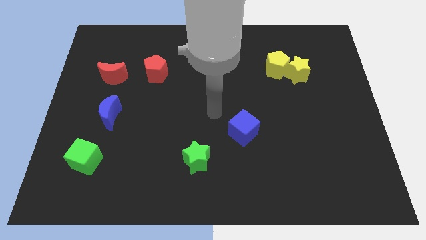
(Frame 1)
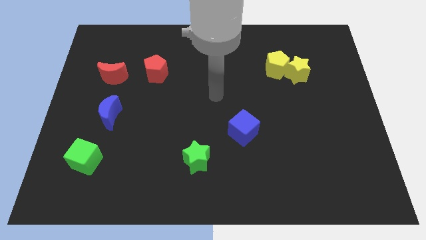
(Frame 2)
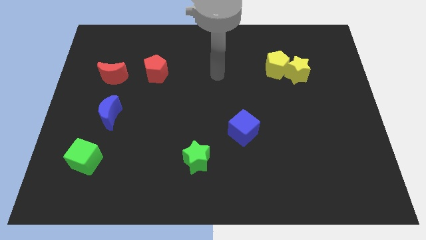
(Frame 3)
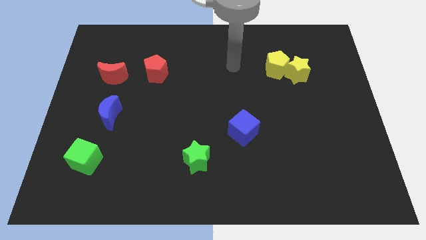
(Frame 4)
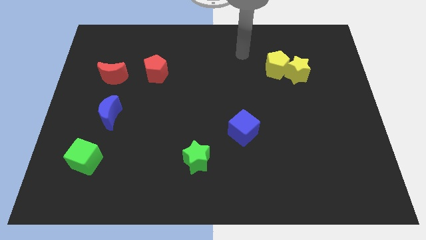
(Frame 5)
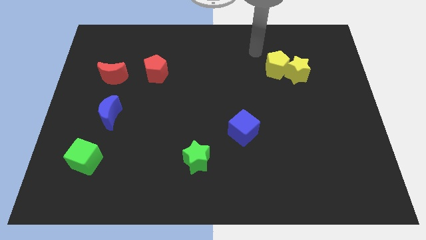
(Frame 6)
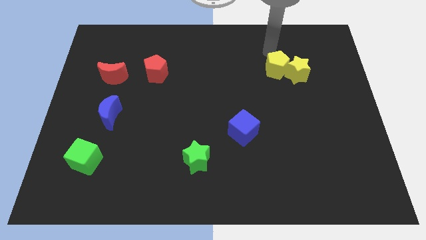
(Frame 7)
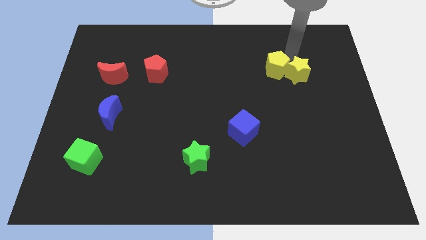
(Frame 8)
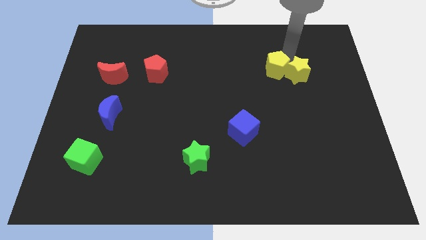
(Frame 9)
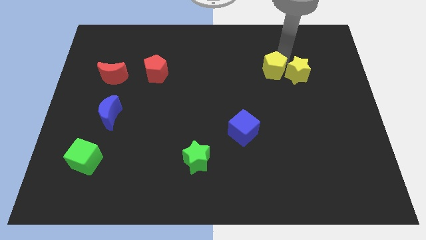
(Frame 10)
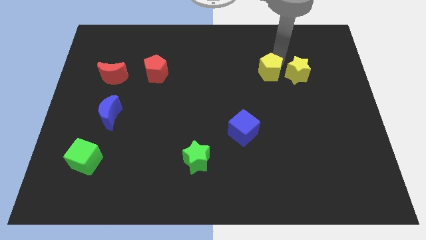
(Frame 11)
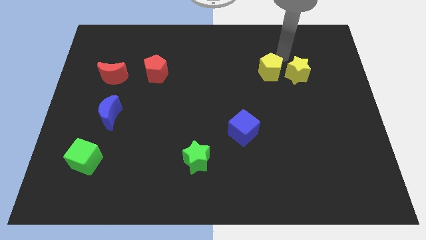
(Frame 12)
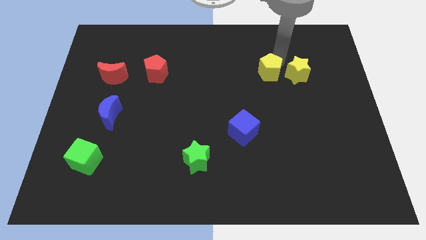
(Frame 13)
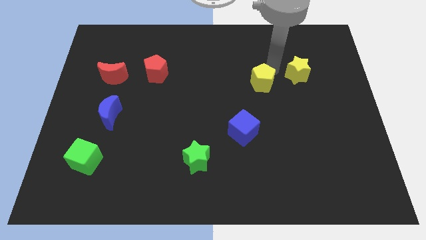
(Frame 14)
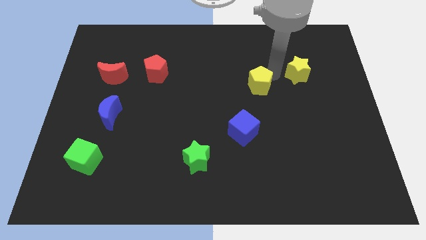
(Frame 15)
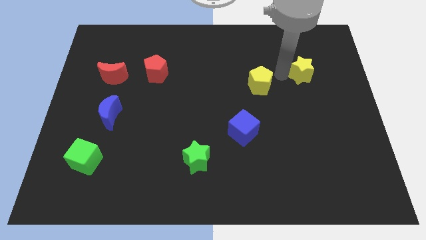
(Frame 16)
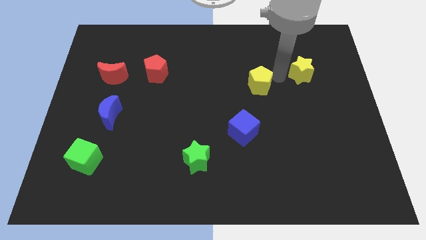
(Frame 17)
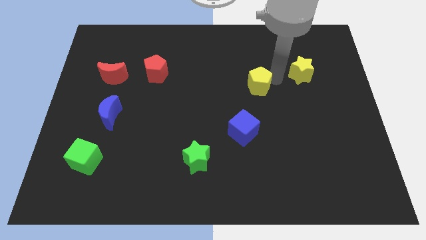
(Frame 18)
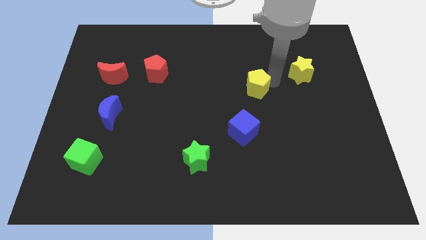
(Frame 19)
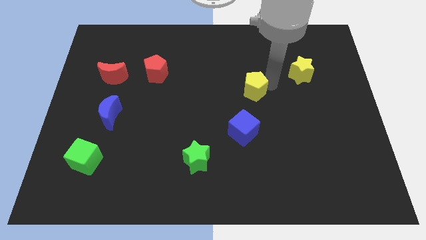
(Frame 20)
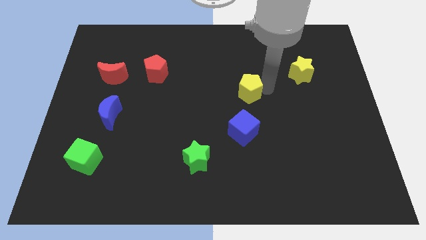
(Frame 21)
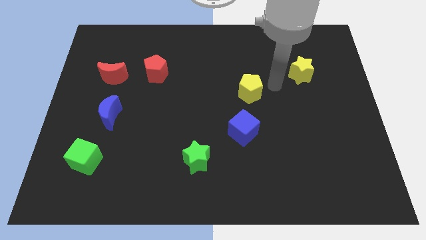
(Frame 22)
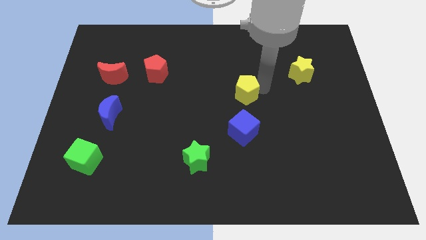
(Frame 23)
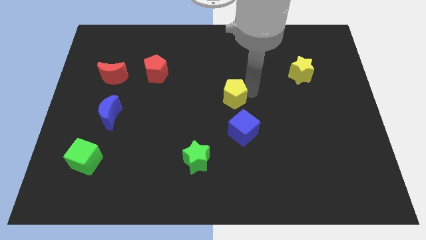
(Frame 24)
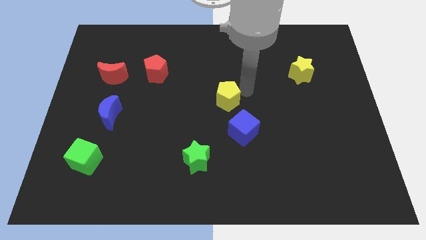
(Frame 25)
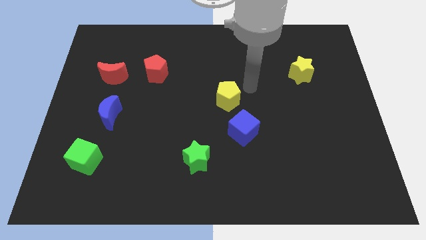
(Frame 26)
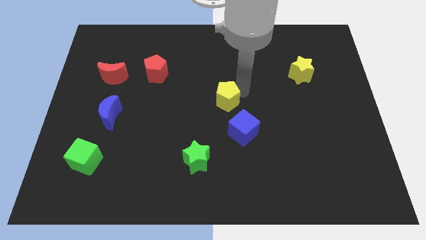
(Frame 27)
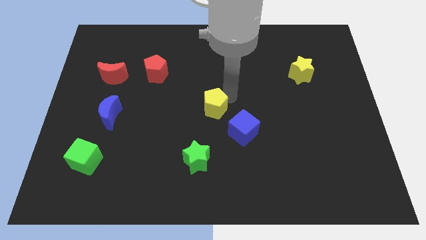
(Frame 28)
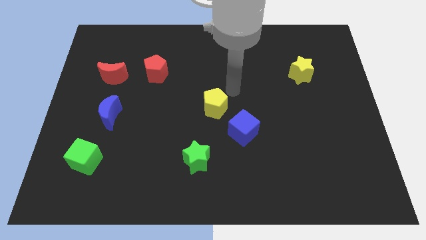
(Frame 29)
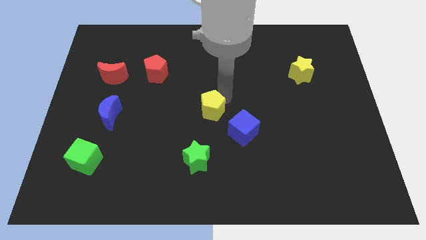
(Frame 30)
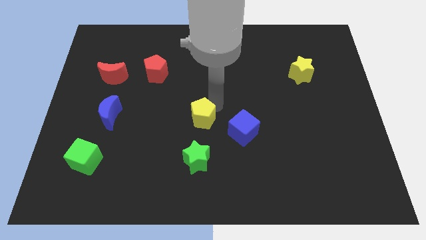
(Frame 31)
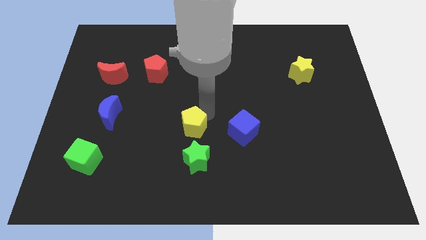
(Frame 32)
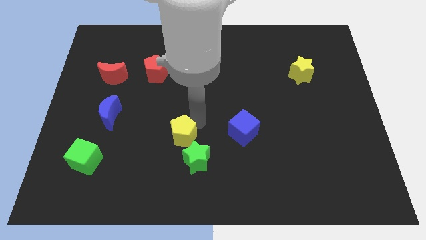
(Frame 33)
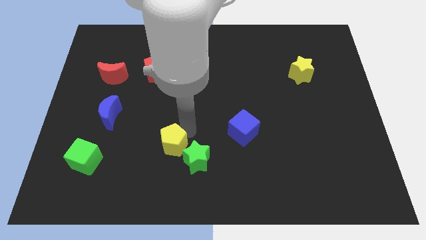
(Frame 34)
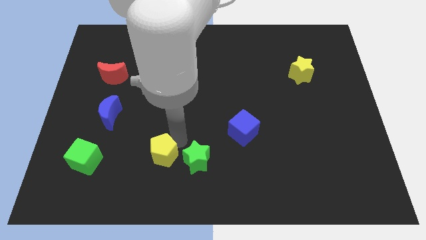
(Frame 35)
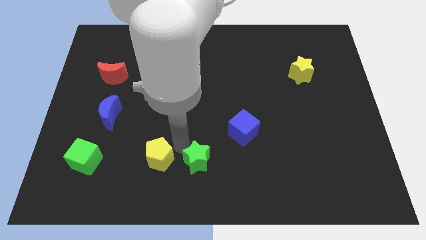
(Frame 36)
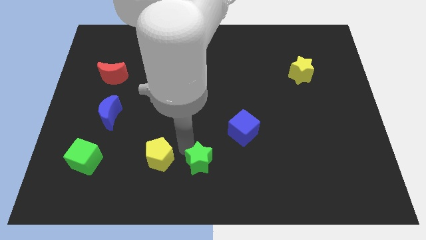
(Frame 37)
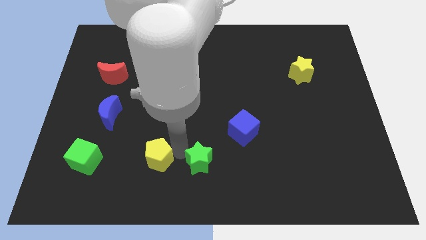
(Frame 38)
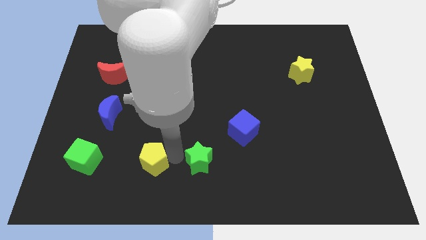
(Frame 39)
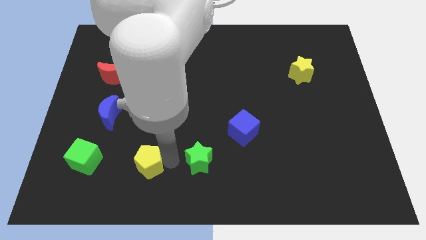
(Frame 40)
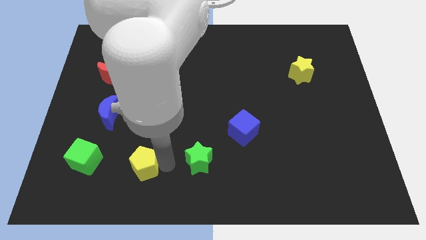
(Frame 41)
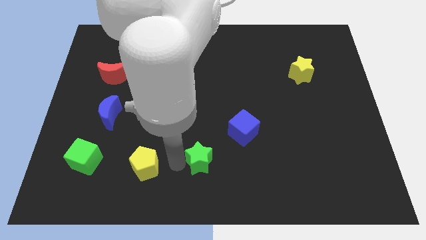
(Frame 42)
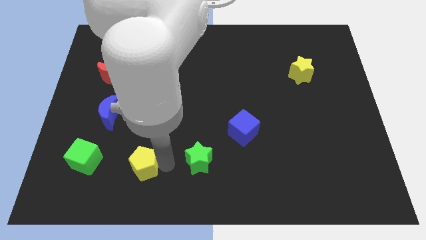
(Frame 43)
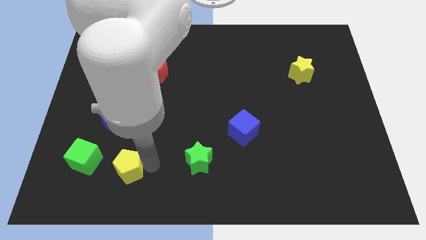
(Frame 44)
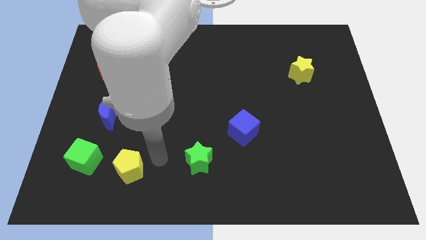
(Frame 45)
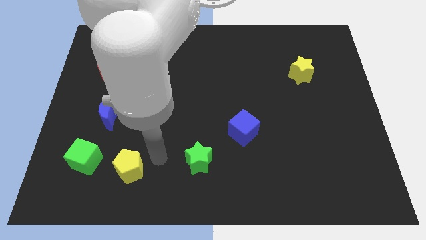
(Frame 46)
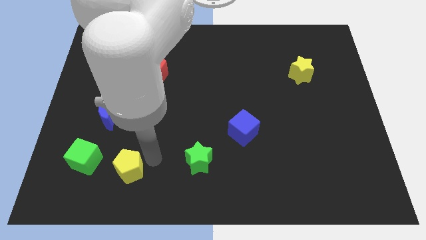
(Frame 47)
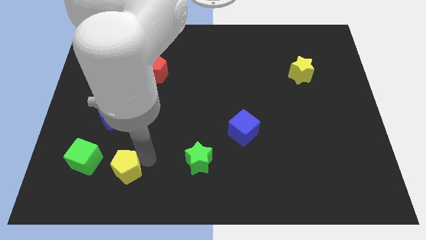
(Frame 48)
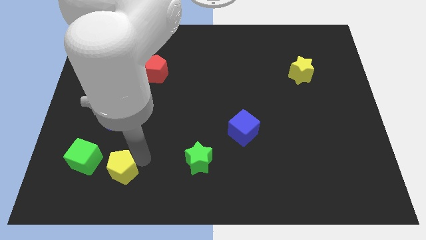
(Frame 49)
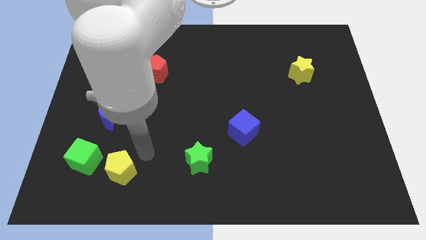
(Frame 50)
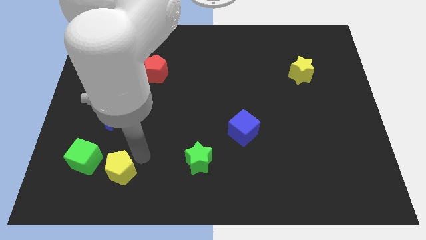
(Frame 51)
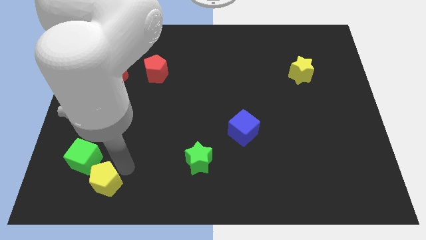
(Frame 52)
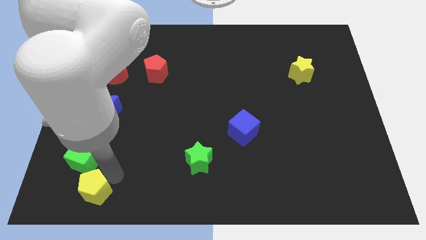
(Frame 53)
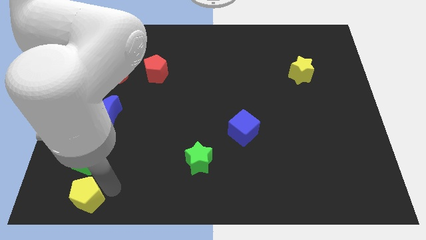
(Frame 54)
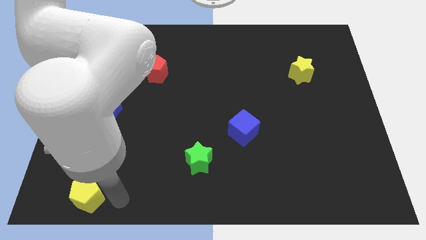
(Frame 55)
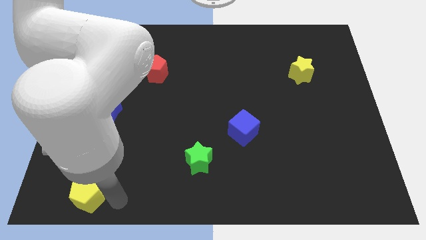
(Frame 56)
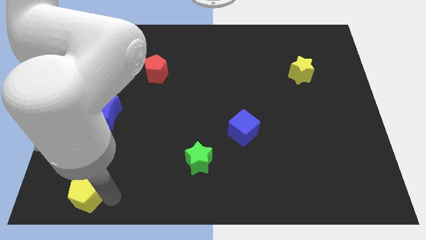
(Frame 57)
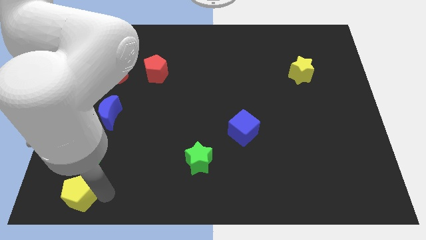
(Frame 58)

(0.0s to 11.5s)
push the yellow pentagon to the bottom left of the board

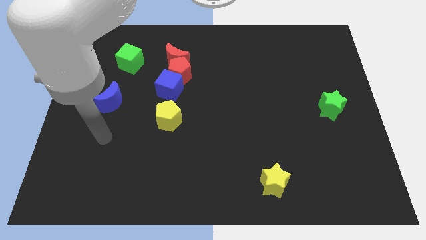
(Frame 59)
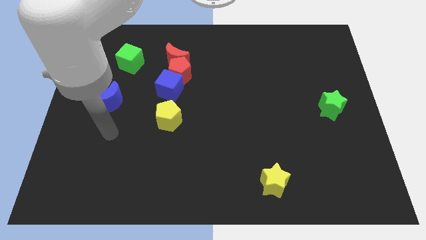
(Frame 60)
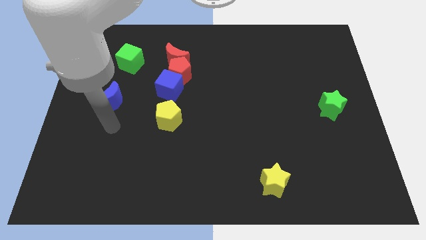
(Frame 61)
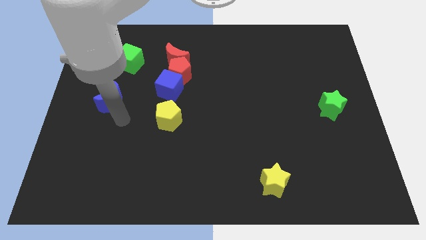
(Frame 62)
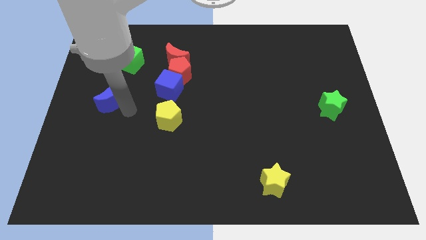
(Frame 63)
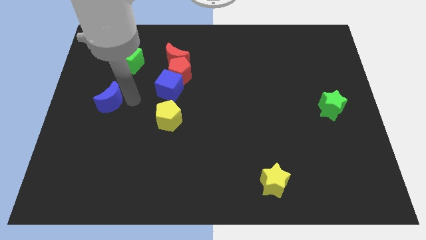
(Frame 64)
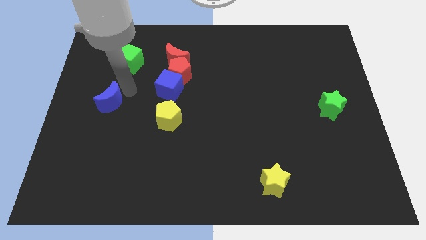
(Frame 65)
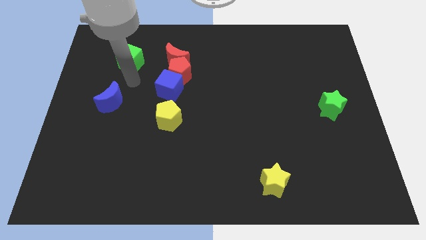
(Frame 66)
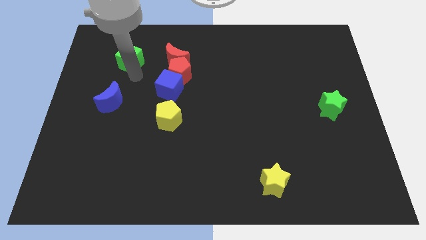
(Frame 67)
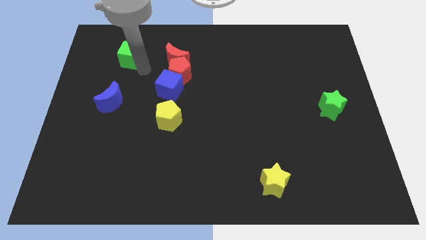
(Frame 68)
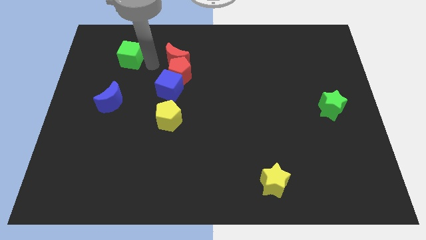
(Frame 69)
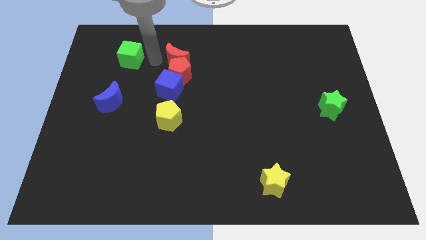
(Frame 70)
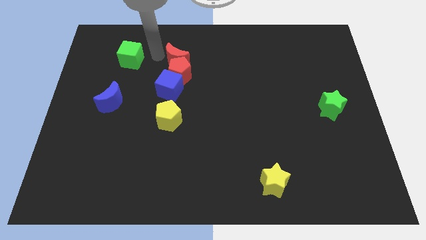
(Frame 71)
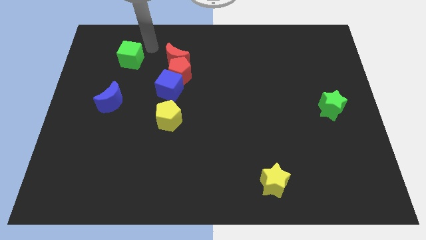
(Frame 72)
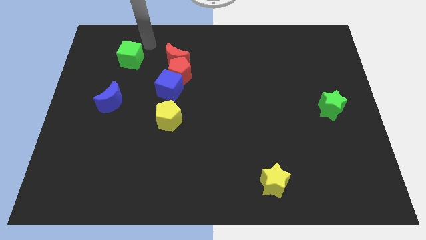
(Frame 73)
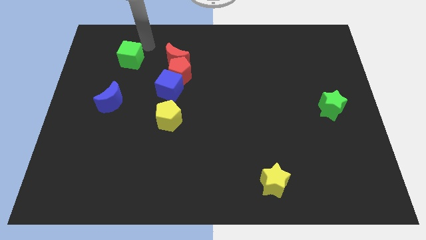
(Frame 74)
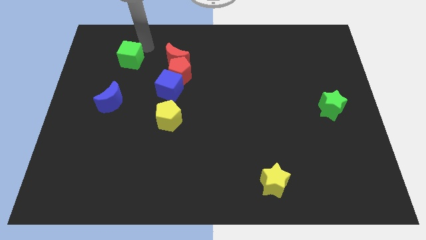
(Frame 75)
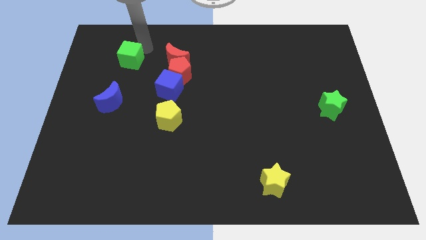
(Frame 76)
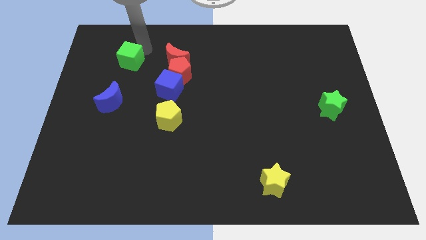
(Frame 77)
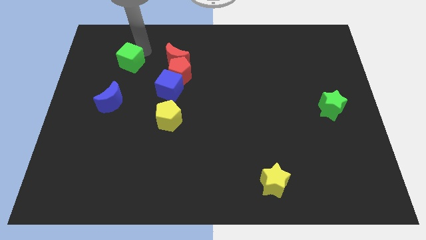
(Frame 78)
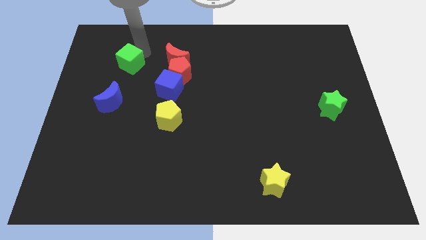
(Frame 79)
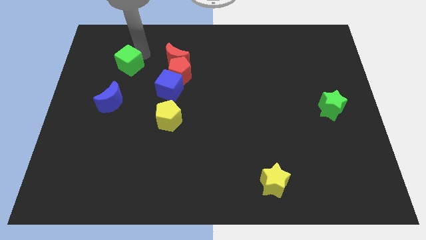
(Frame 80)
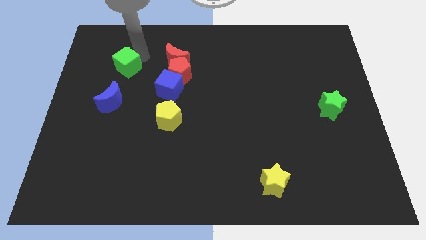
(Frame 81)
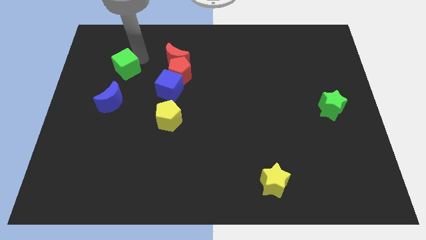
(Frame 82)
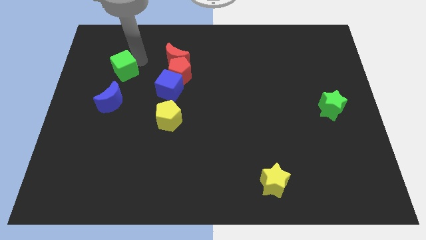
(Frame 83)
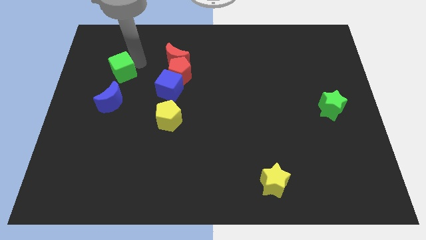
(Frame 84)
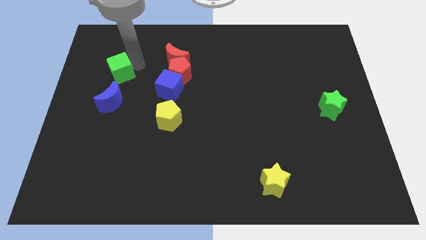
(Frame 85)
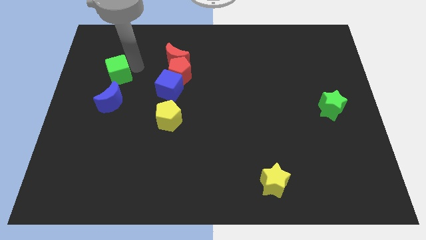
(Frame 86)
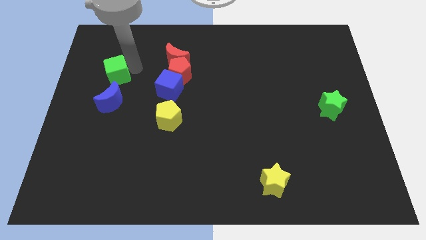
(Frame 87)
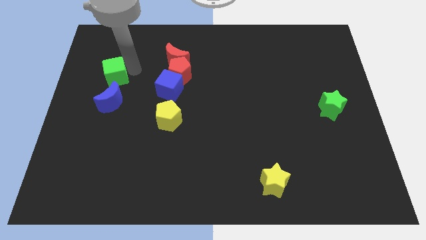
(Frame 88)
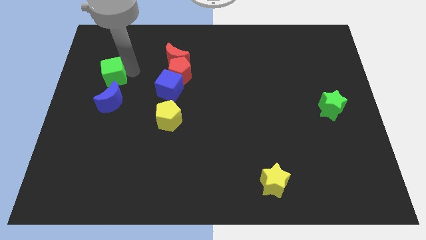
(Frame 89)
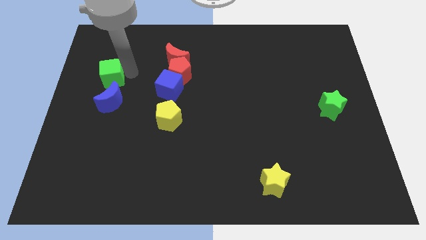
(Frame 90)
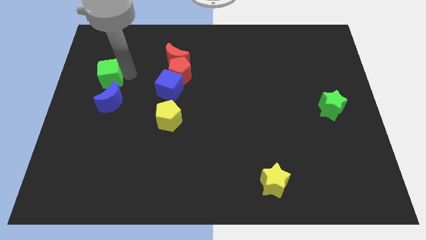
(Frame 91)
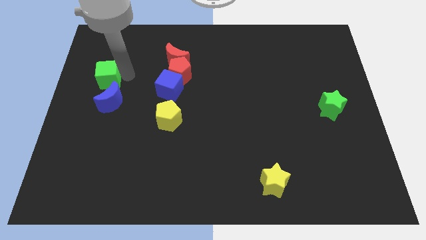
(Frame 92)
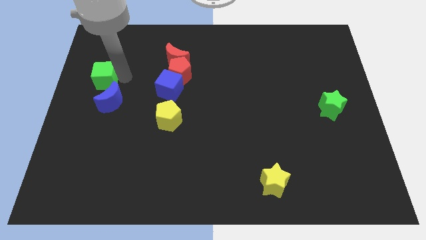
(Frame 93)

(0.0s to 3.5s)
move the green cube to the center left
